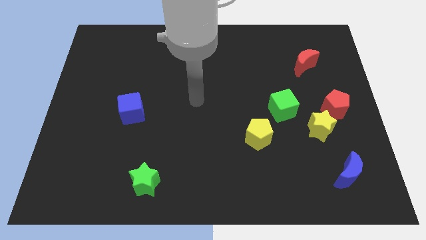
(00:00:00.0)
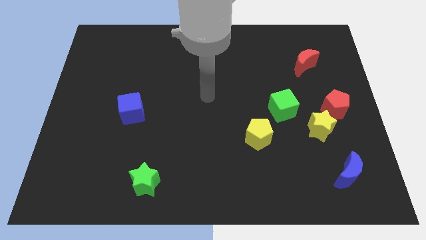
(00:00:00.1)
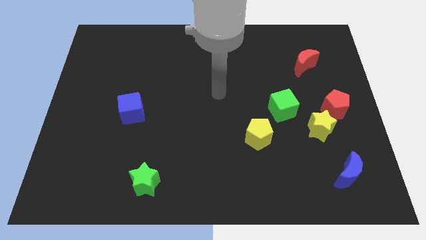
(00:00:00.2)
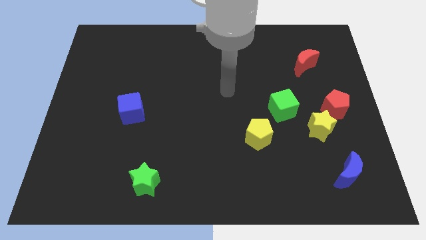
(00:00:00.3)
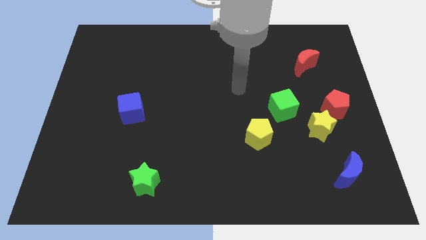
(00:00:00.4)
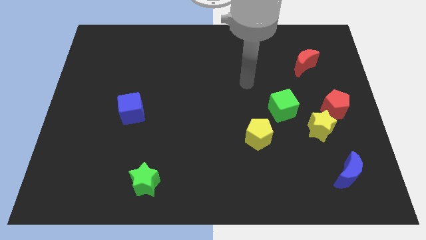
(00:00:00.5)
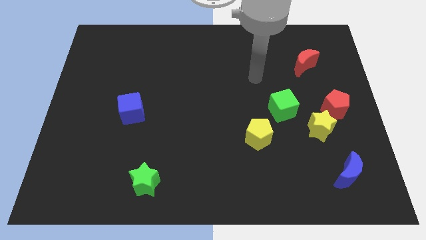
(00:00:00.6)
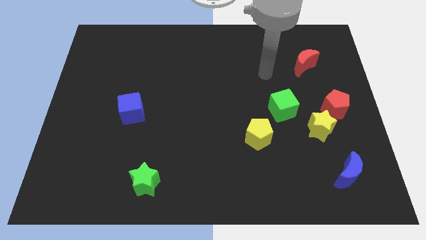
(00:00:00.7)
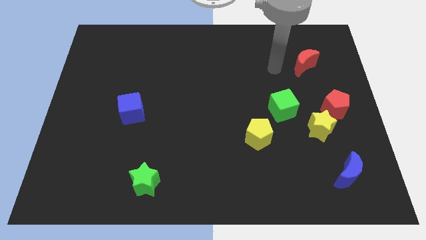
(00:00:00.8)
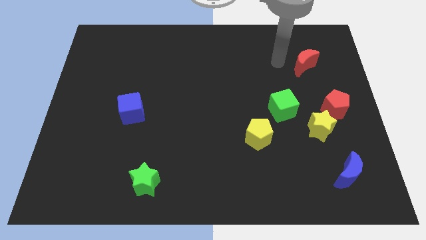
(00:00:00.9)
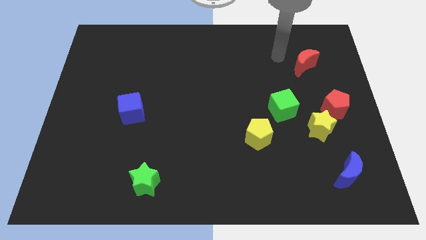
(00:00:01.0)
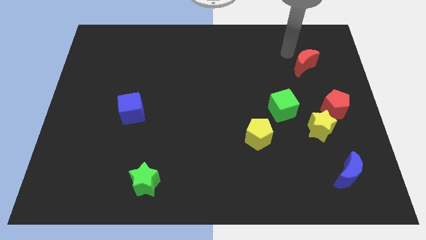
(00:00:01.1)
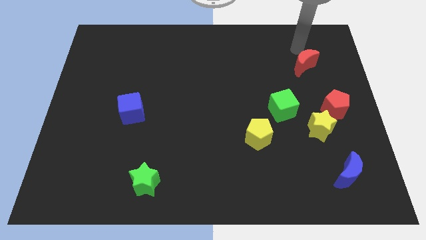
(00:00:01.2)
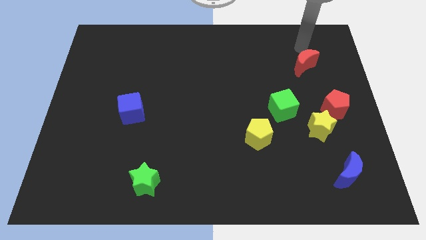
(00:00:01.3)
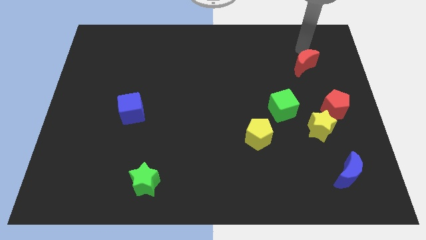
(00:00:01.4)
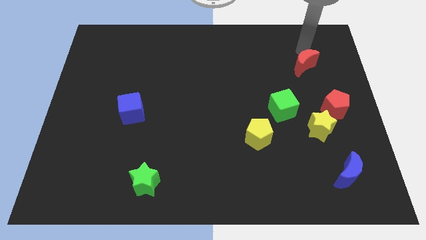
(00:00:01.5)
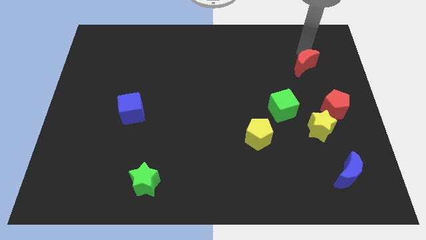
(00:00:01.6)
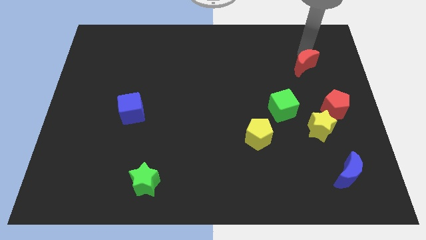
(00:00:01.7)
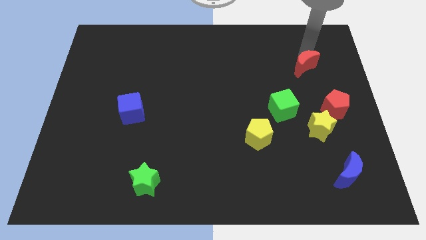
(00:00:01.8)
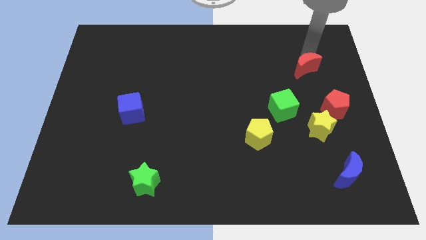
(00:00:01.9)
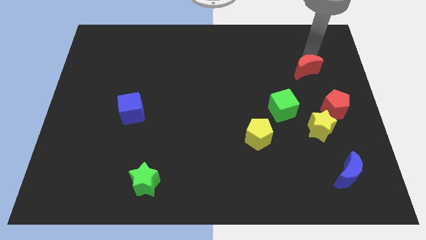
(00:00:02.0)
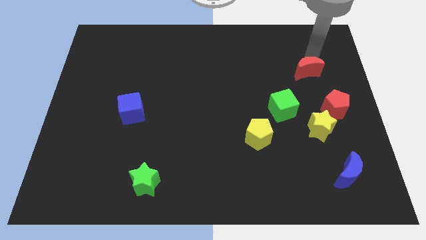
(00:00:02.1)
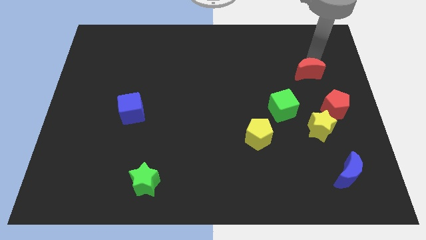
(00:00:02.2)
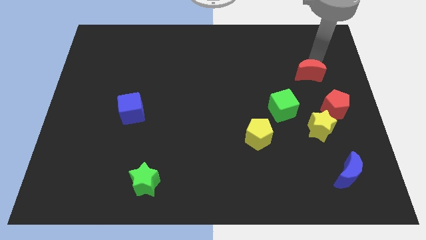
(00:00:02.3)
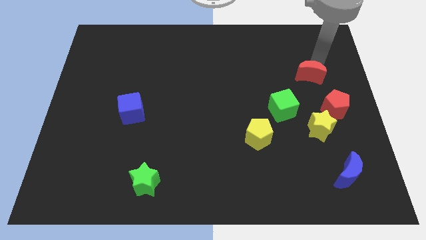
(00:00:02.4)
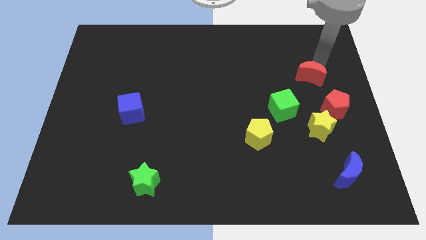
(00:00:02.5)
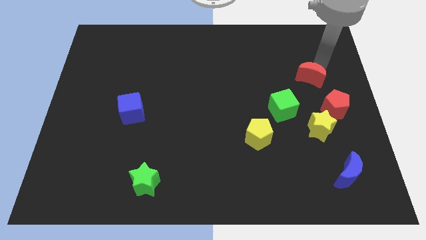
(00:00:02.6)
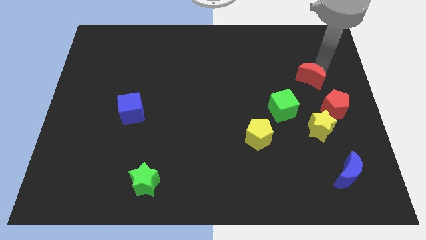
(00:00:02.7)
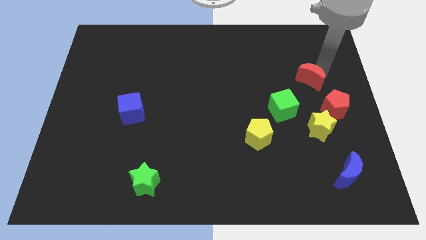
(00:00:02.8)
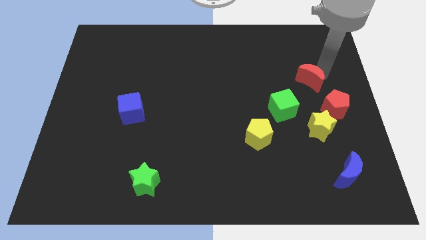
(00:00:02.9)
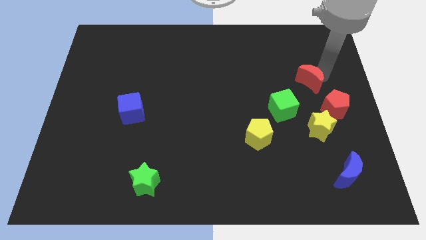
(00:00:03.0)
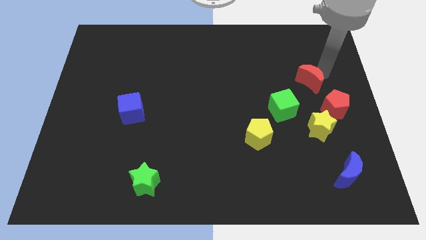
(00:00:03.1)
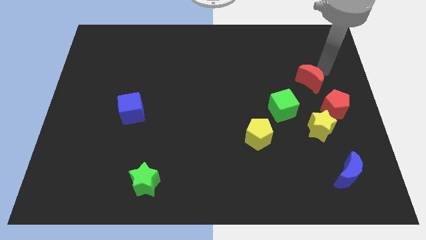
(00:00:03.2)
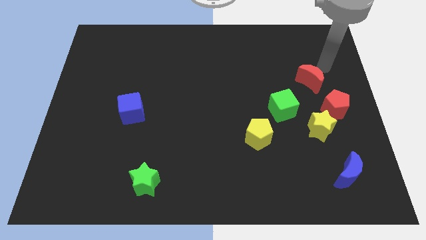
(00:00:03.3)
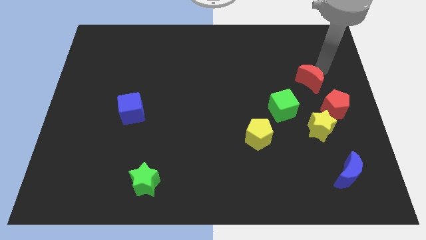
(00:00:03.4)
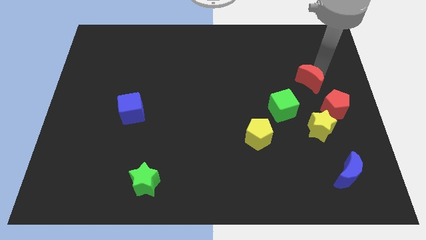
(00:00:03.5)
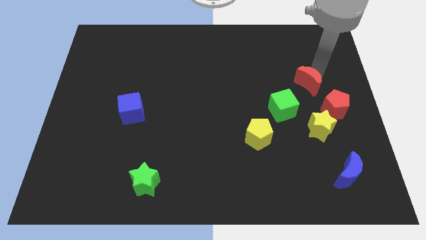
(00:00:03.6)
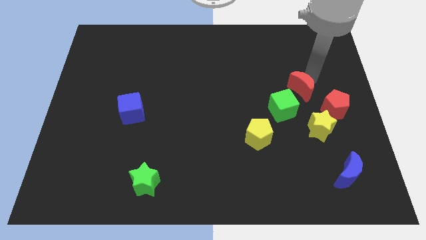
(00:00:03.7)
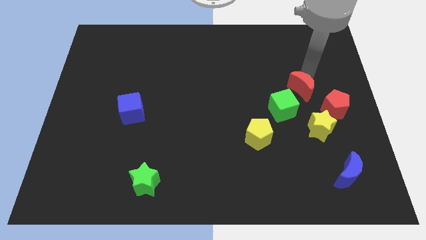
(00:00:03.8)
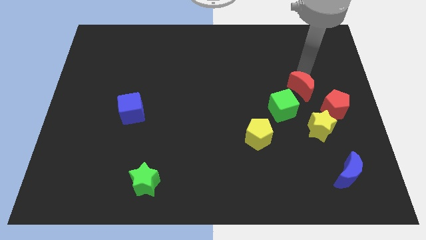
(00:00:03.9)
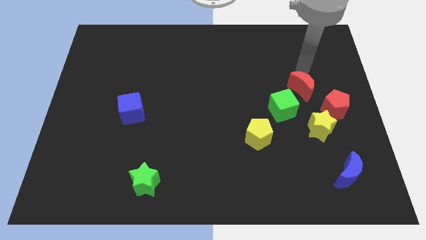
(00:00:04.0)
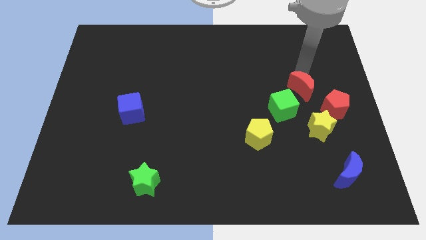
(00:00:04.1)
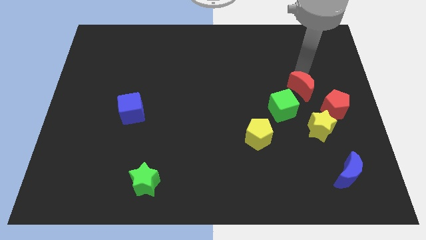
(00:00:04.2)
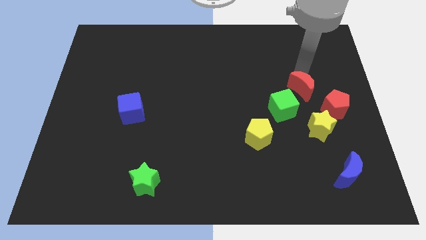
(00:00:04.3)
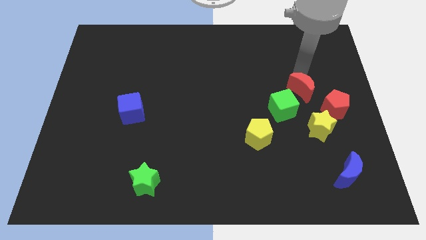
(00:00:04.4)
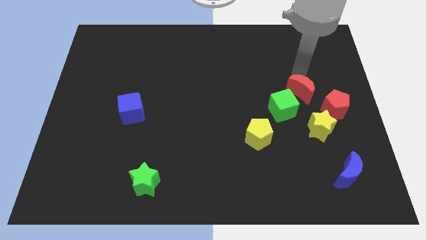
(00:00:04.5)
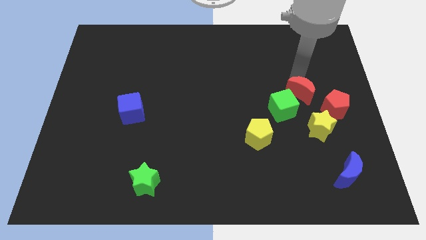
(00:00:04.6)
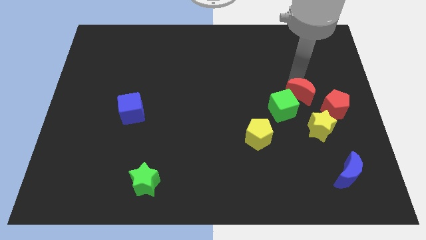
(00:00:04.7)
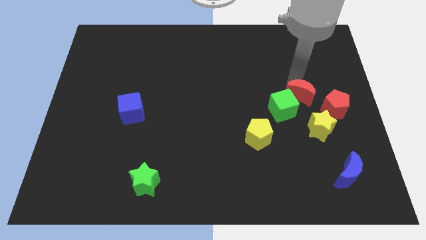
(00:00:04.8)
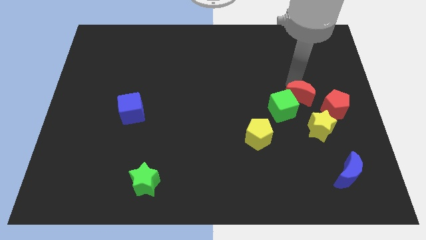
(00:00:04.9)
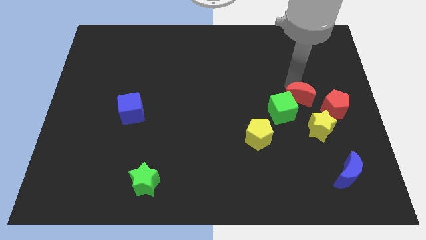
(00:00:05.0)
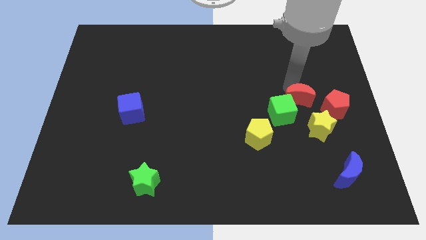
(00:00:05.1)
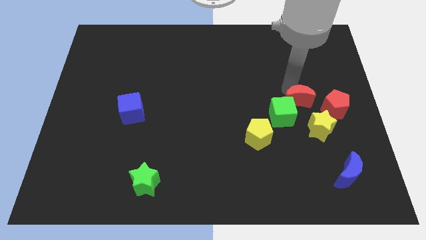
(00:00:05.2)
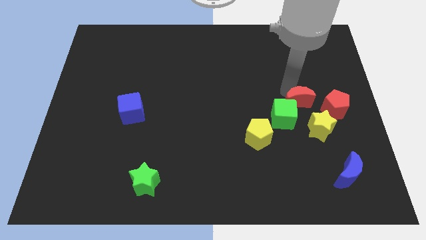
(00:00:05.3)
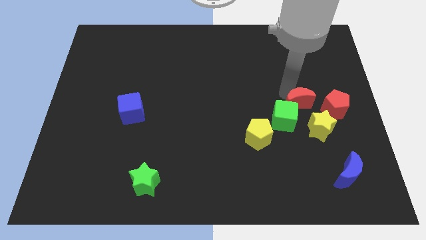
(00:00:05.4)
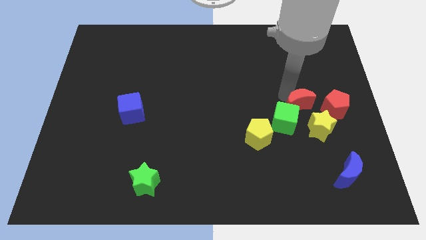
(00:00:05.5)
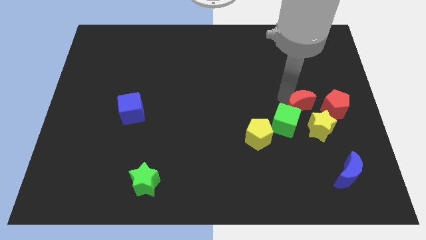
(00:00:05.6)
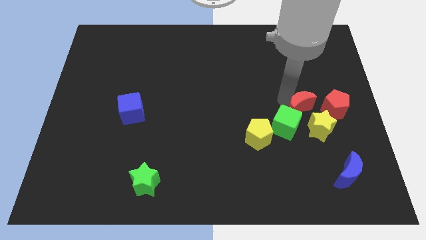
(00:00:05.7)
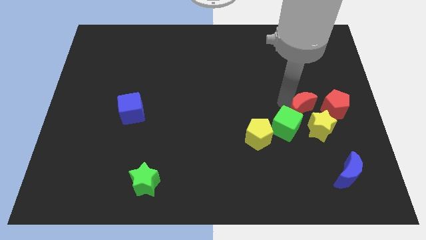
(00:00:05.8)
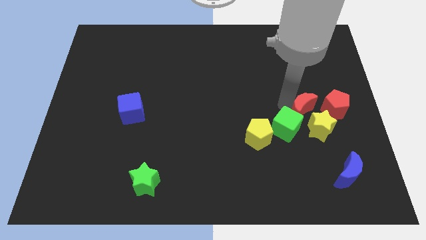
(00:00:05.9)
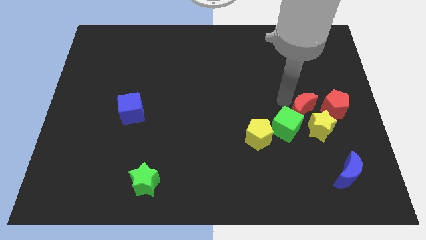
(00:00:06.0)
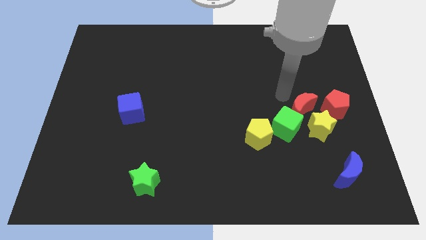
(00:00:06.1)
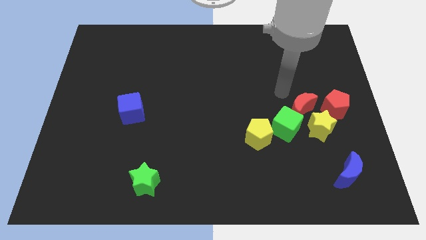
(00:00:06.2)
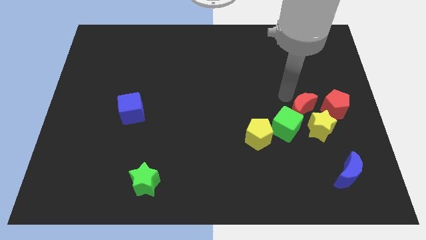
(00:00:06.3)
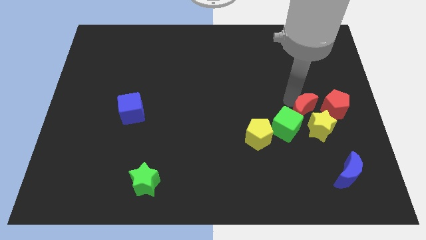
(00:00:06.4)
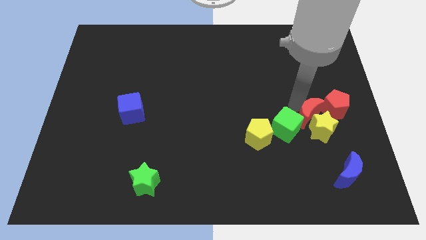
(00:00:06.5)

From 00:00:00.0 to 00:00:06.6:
slide the red moon close to the yellow star
